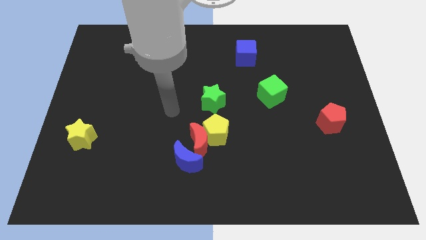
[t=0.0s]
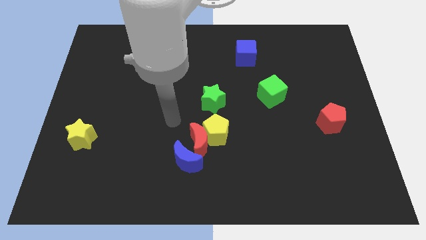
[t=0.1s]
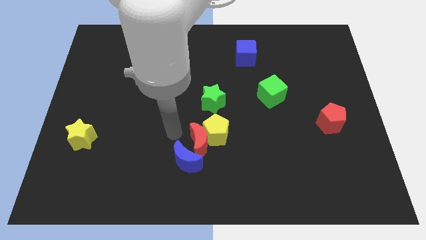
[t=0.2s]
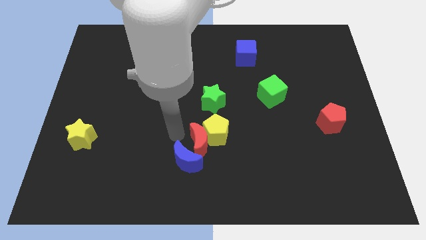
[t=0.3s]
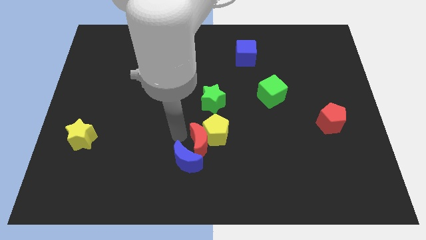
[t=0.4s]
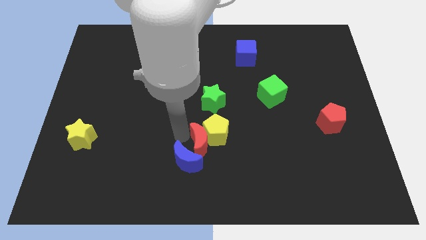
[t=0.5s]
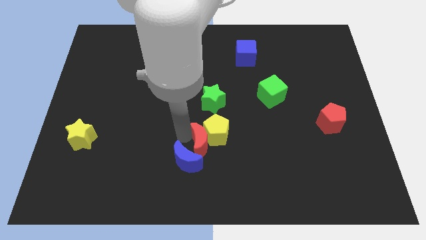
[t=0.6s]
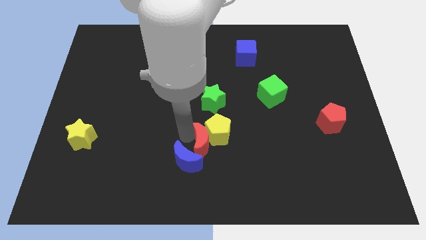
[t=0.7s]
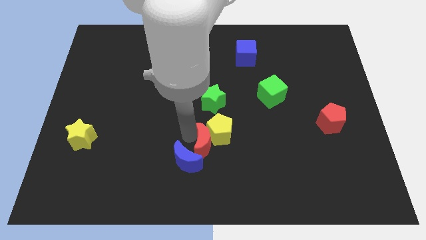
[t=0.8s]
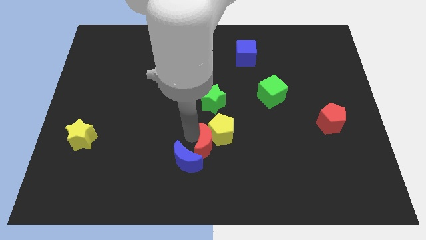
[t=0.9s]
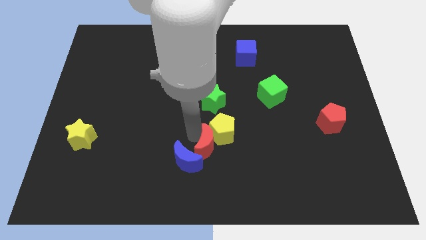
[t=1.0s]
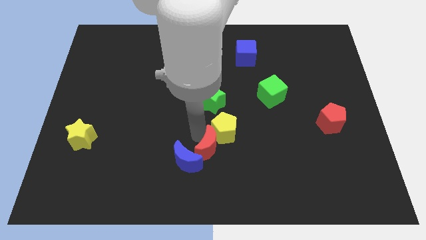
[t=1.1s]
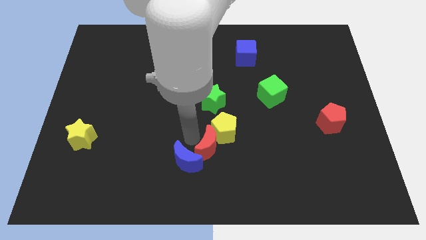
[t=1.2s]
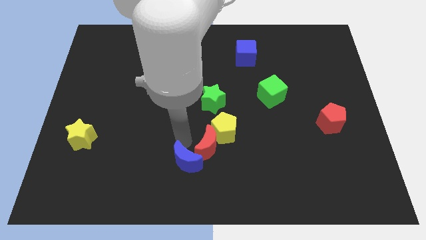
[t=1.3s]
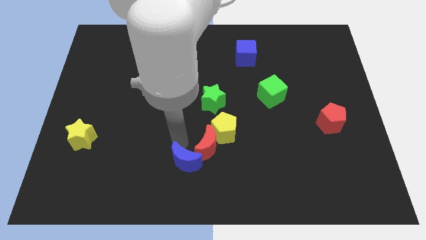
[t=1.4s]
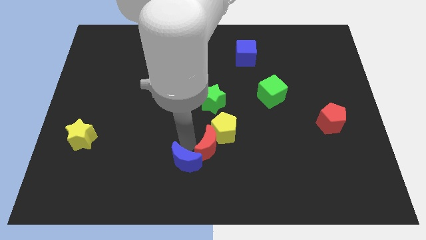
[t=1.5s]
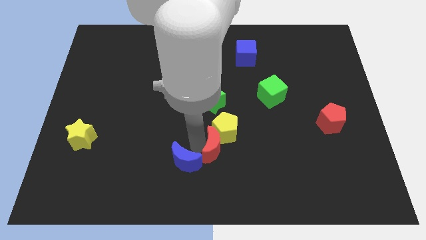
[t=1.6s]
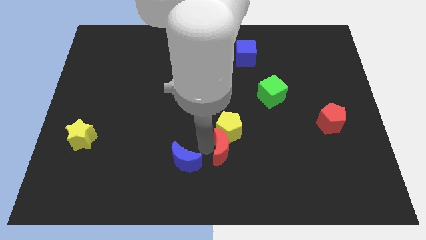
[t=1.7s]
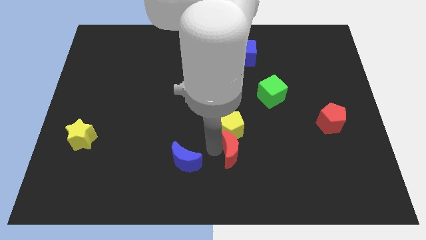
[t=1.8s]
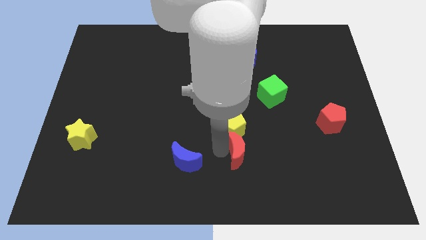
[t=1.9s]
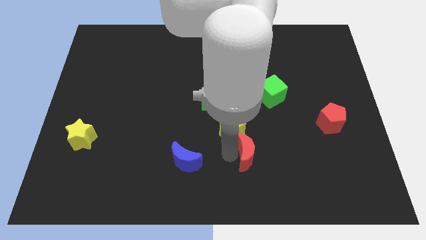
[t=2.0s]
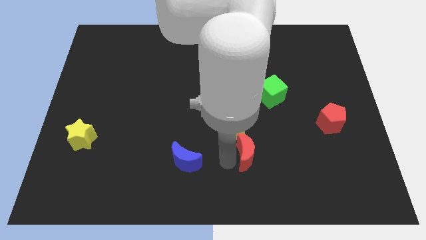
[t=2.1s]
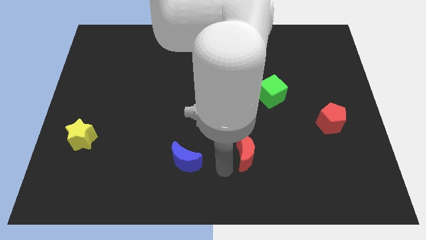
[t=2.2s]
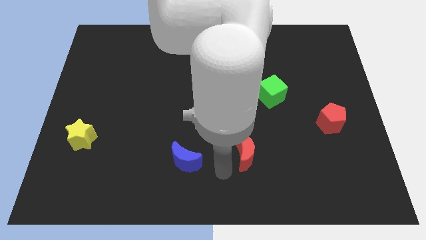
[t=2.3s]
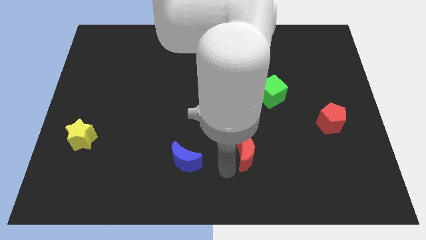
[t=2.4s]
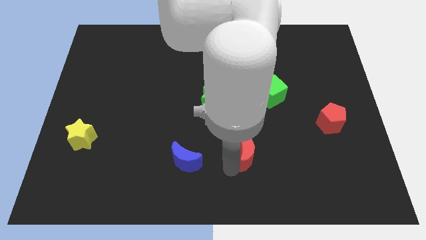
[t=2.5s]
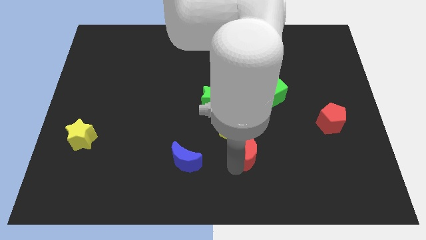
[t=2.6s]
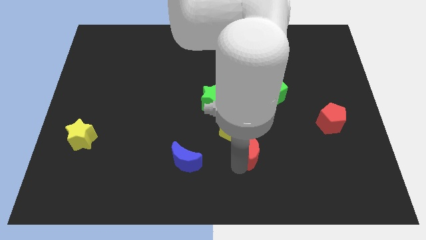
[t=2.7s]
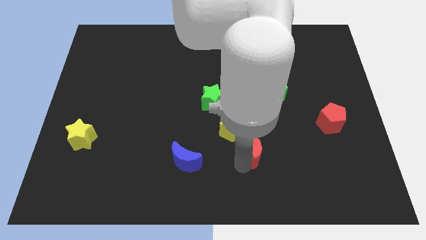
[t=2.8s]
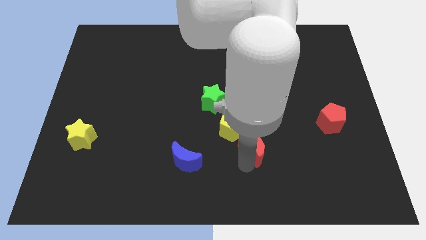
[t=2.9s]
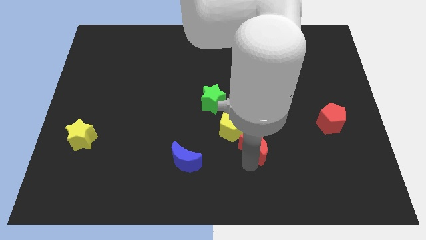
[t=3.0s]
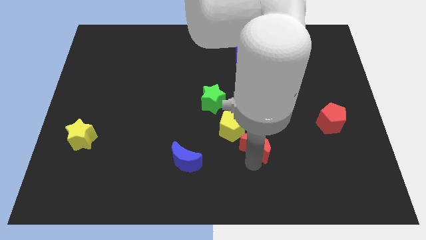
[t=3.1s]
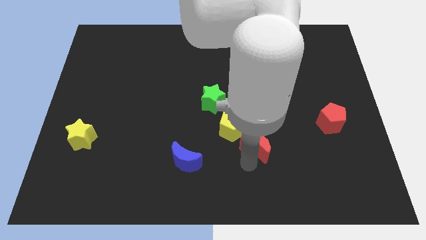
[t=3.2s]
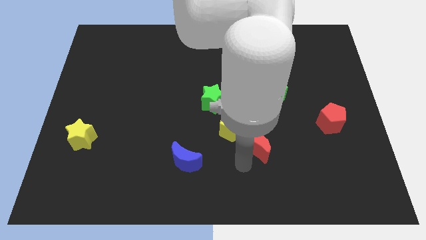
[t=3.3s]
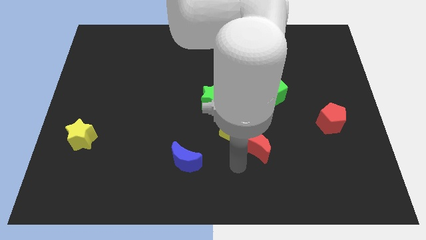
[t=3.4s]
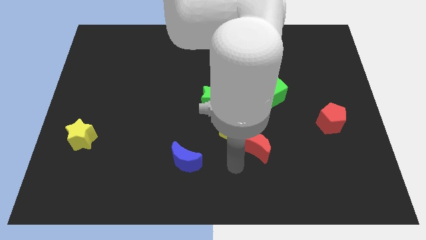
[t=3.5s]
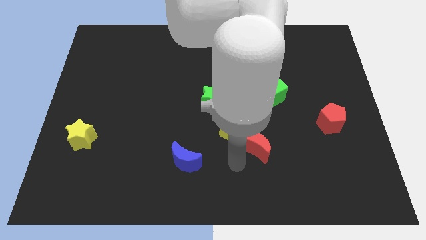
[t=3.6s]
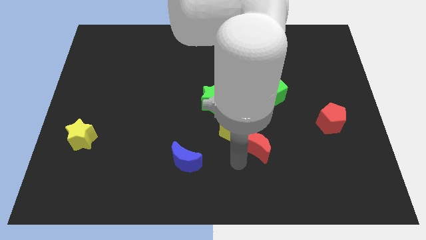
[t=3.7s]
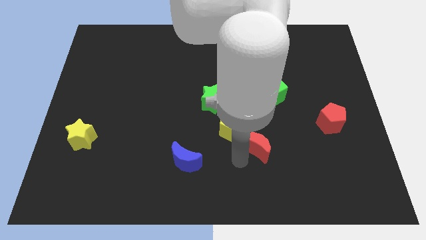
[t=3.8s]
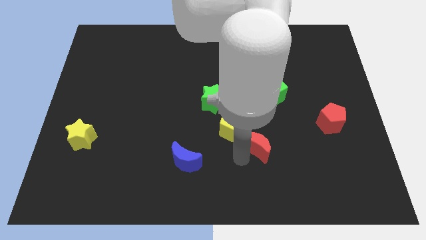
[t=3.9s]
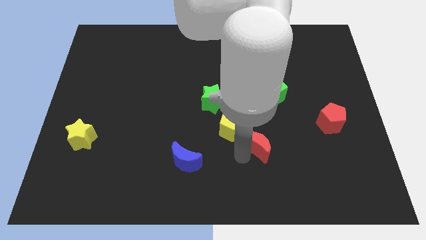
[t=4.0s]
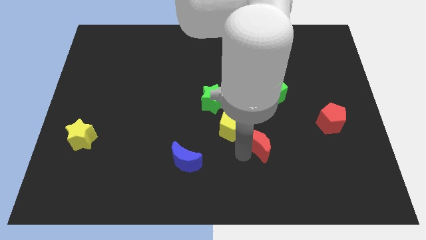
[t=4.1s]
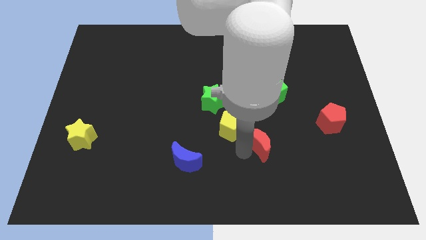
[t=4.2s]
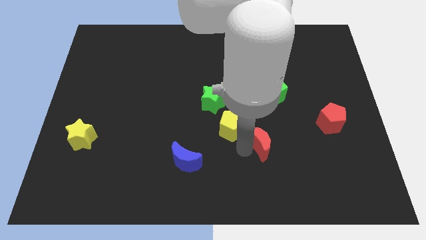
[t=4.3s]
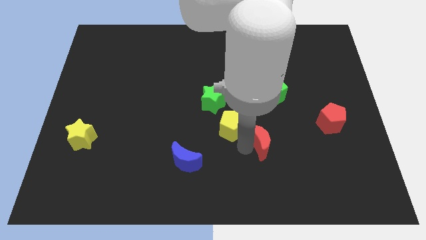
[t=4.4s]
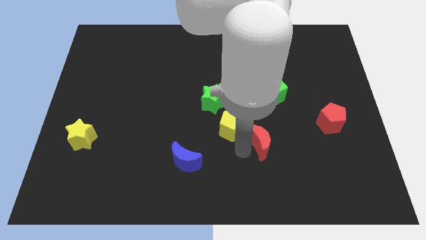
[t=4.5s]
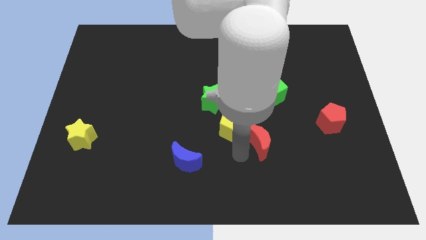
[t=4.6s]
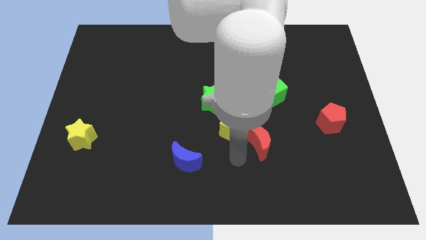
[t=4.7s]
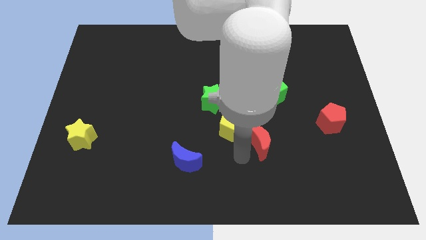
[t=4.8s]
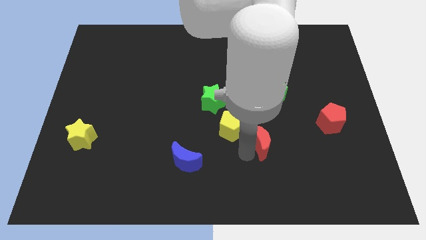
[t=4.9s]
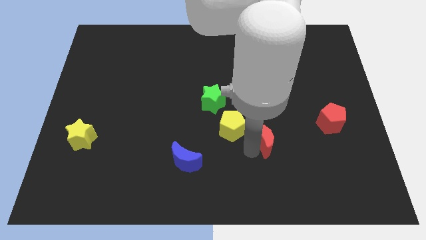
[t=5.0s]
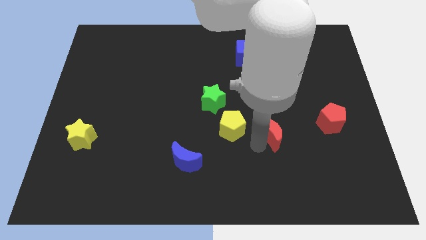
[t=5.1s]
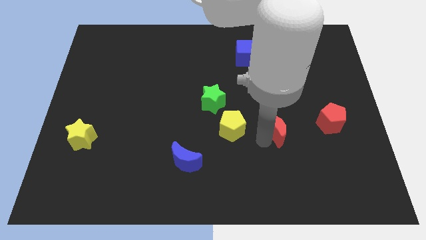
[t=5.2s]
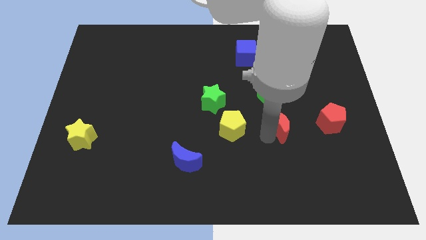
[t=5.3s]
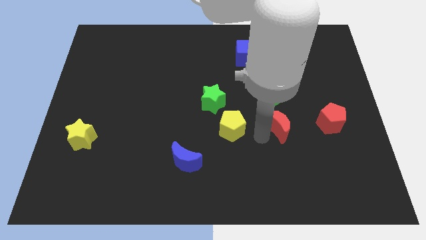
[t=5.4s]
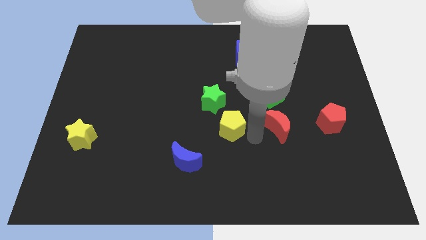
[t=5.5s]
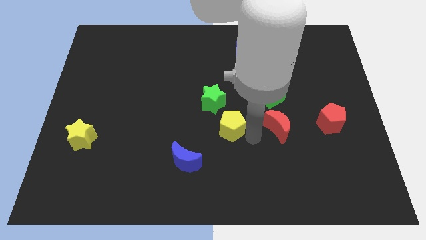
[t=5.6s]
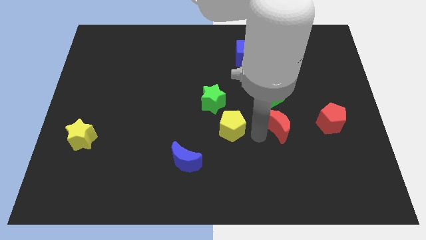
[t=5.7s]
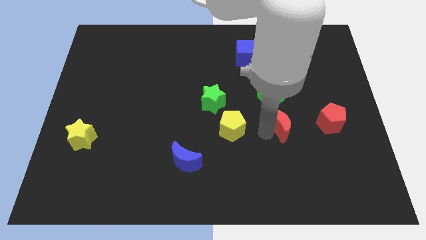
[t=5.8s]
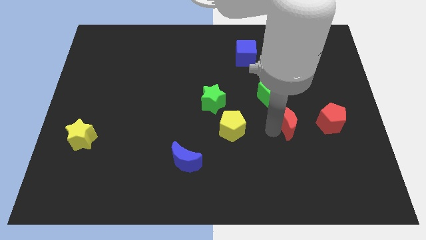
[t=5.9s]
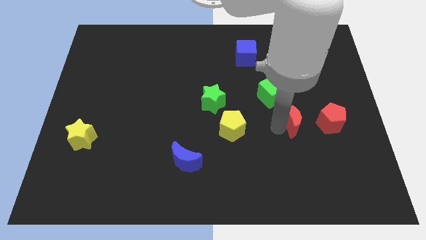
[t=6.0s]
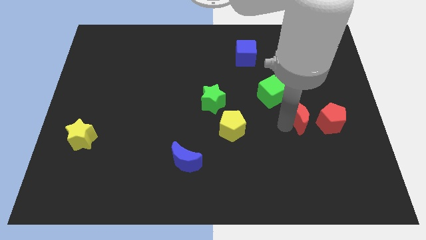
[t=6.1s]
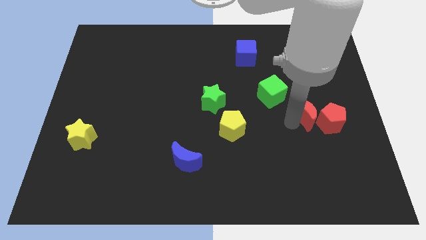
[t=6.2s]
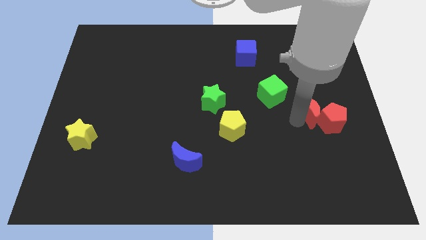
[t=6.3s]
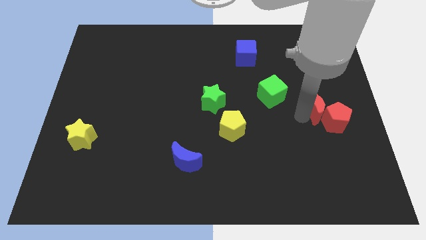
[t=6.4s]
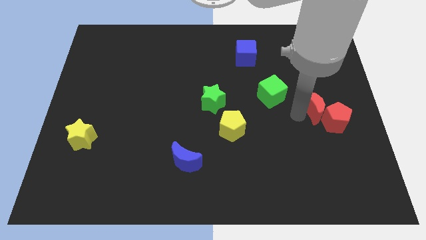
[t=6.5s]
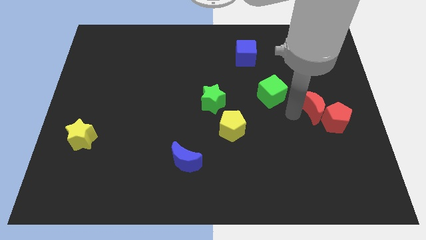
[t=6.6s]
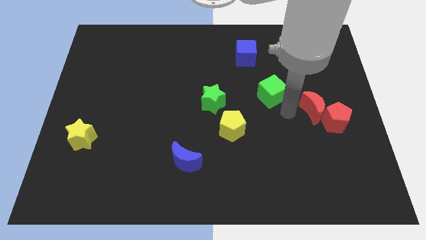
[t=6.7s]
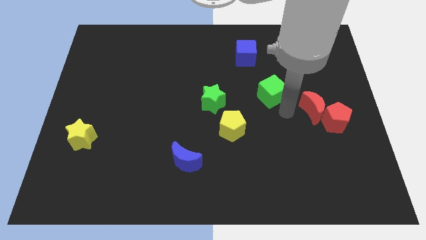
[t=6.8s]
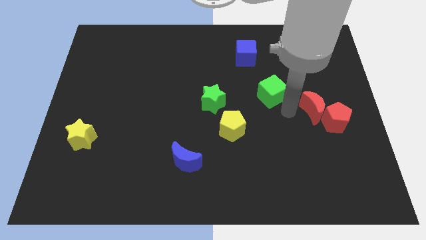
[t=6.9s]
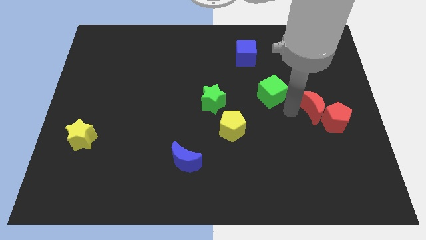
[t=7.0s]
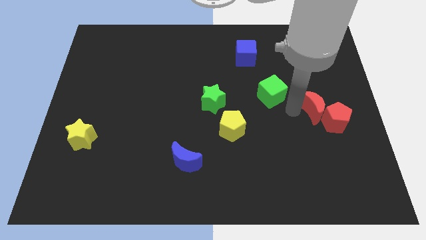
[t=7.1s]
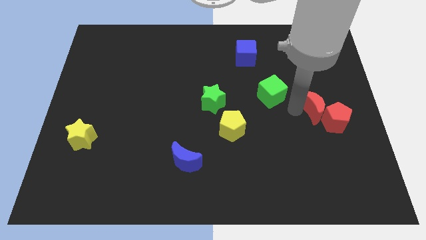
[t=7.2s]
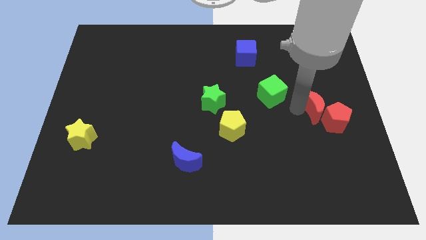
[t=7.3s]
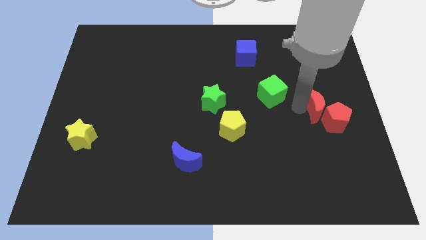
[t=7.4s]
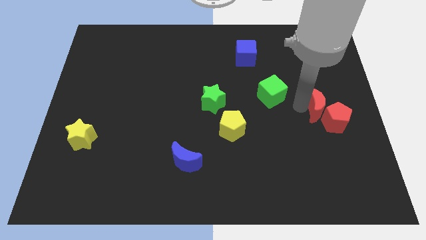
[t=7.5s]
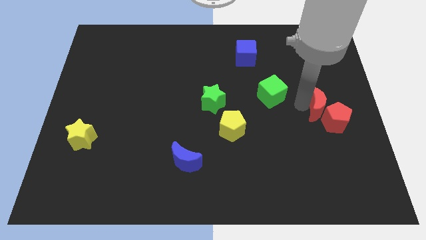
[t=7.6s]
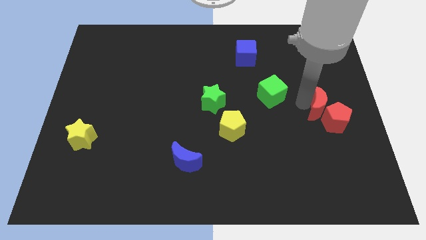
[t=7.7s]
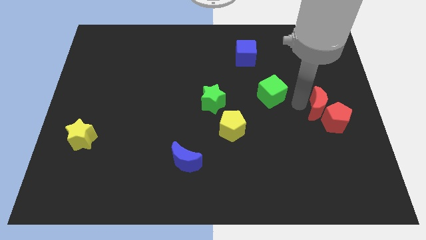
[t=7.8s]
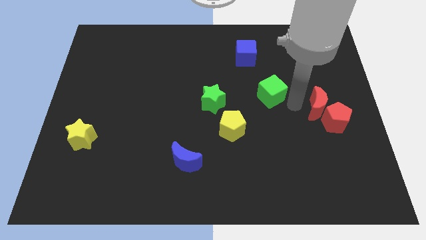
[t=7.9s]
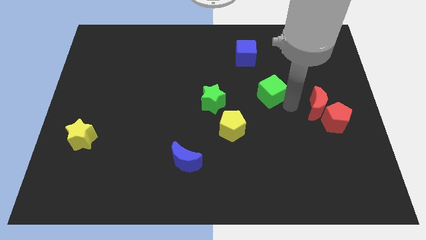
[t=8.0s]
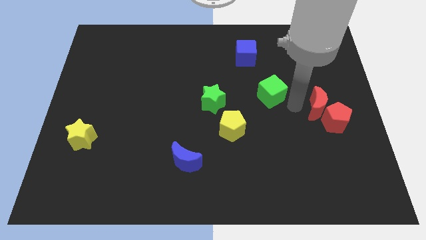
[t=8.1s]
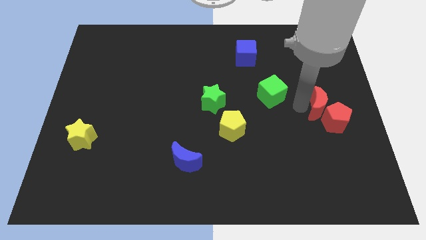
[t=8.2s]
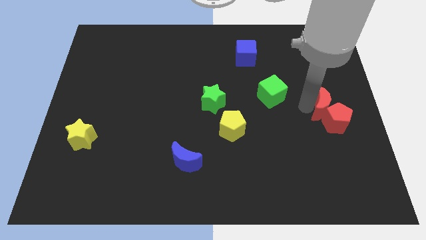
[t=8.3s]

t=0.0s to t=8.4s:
slide the red moon to the center right
